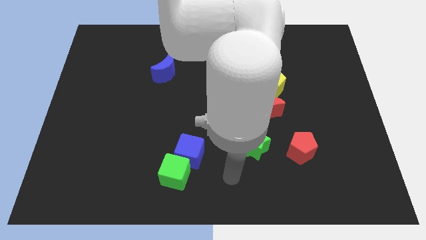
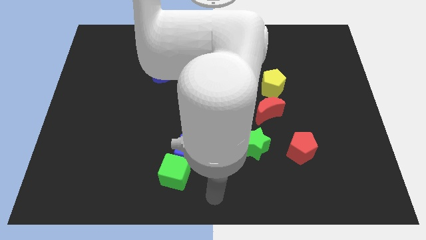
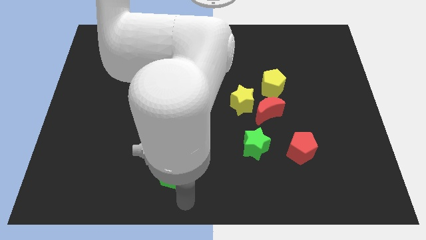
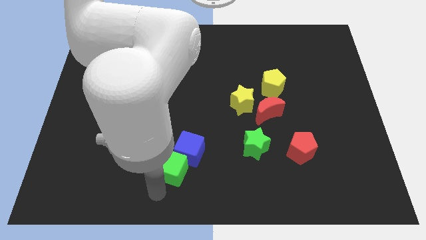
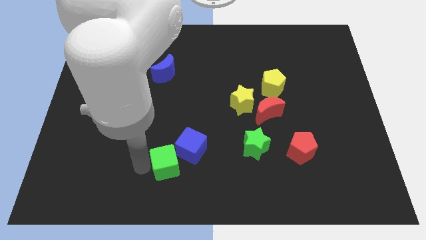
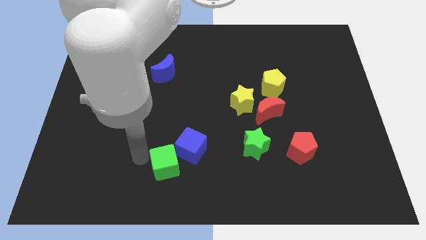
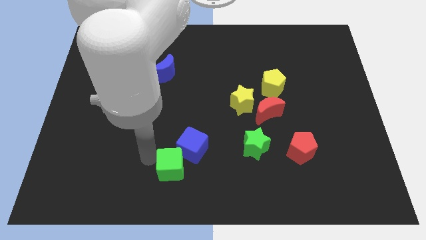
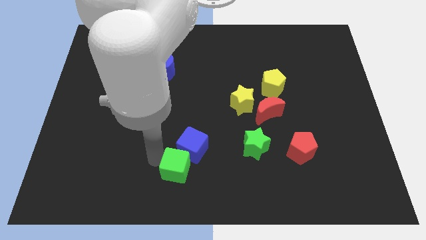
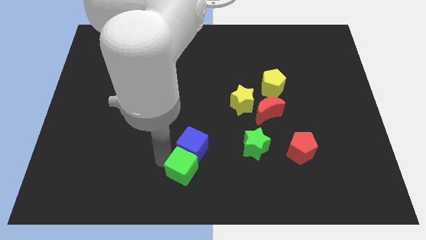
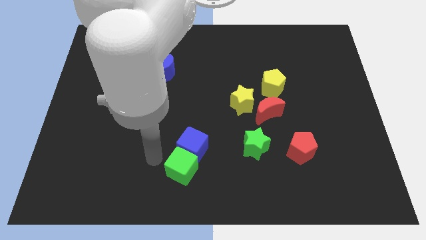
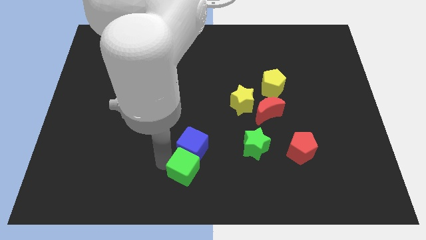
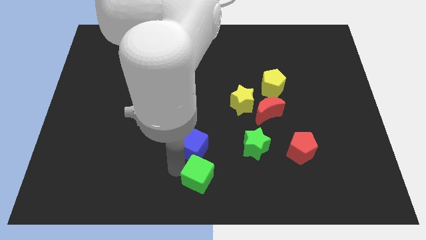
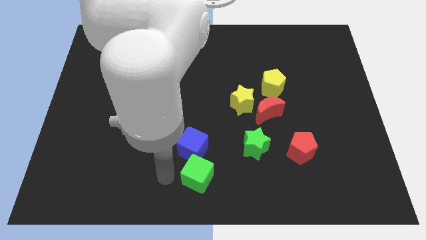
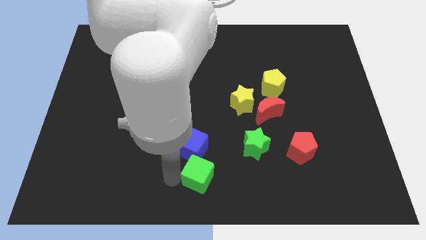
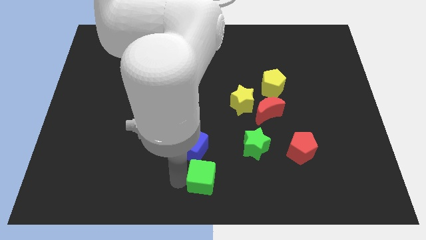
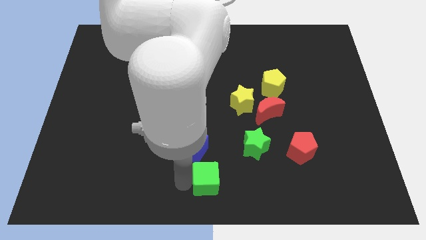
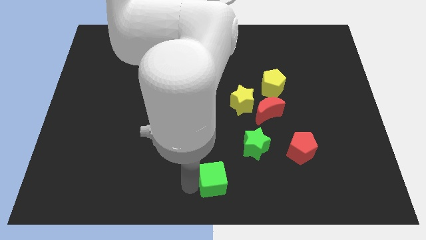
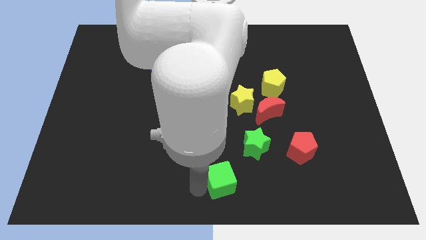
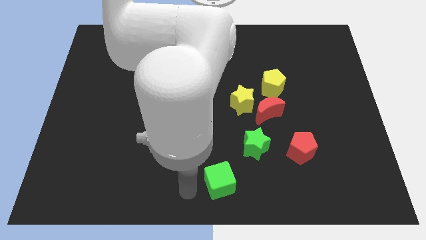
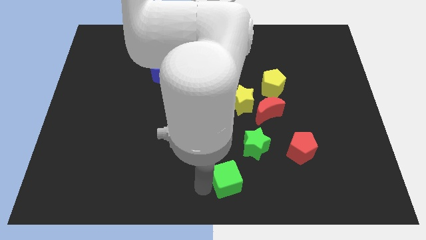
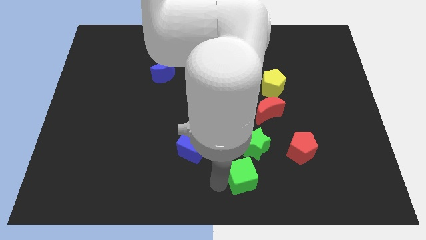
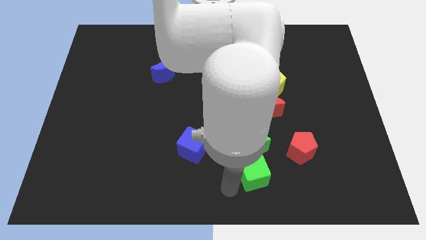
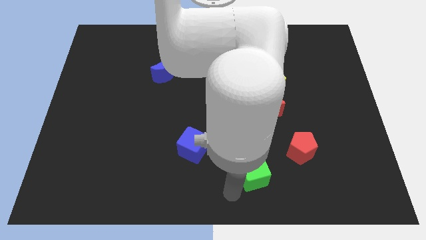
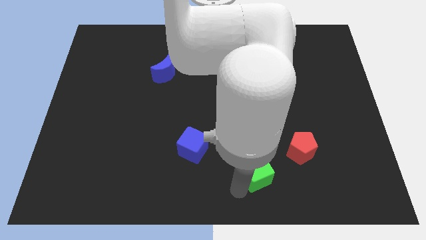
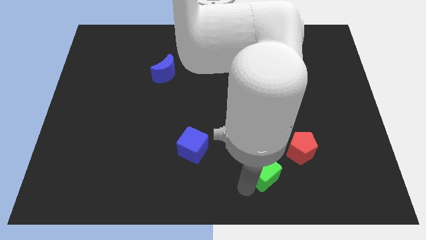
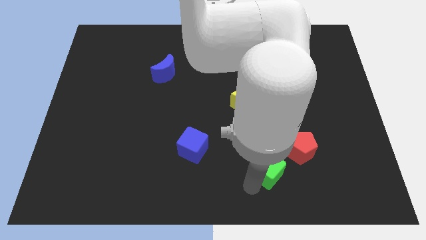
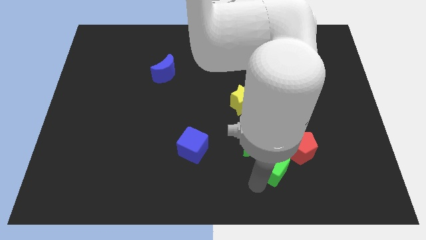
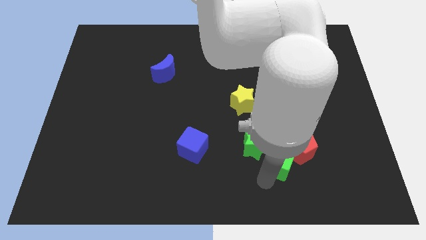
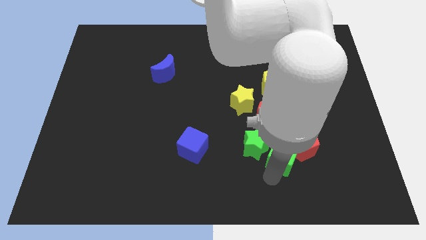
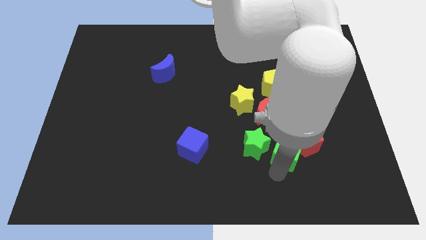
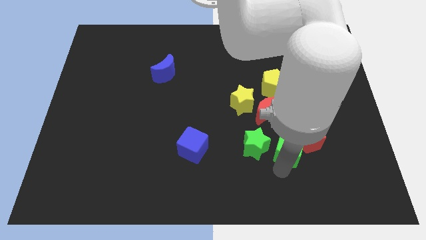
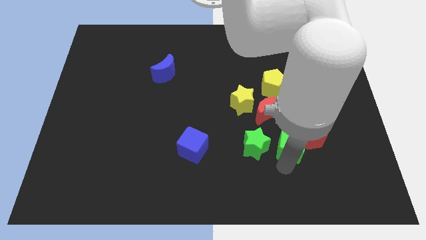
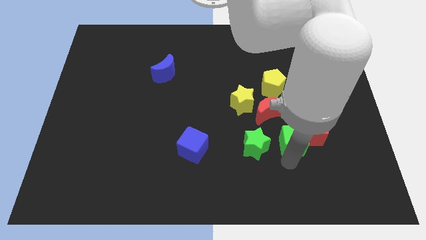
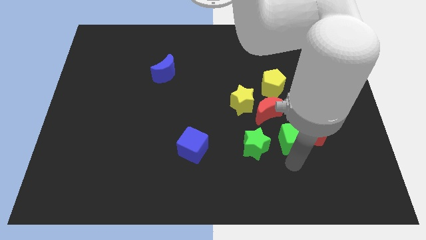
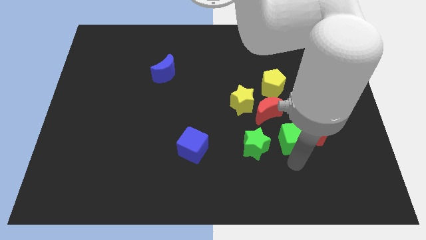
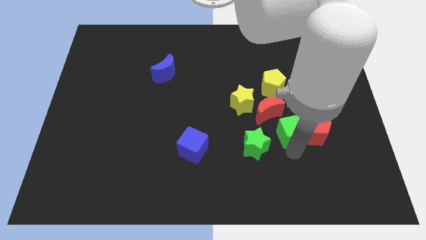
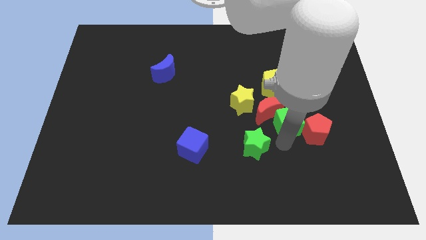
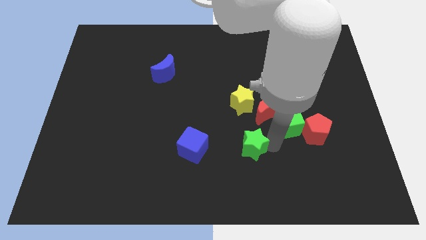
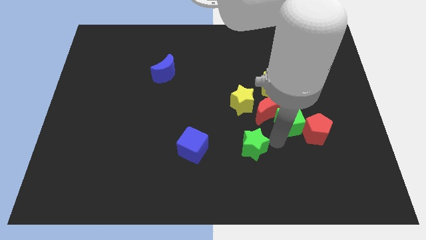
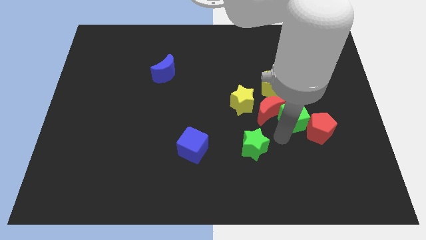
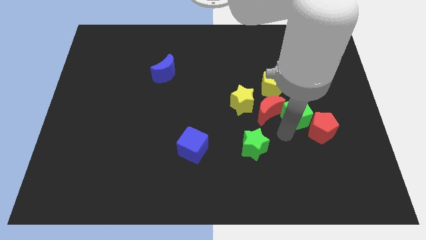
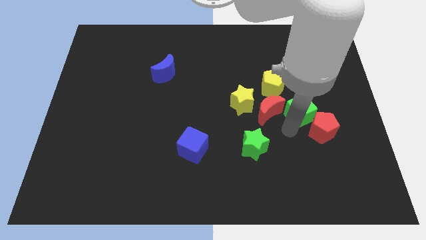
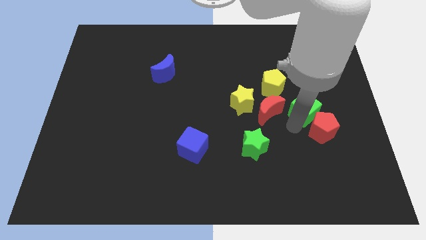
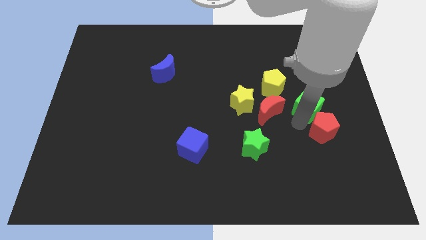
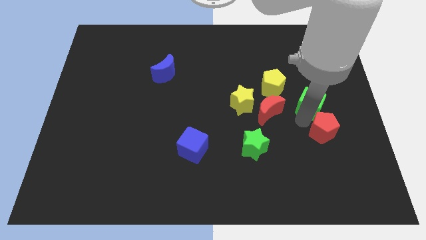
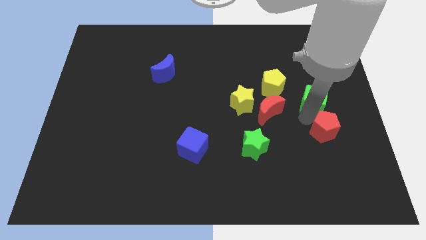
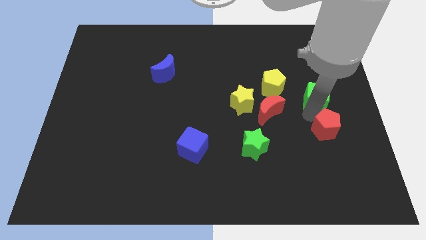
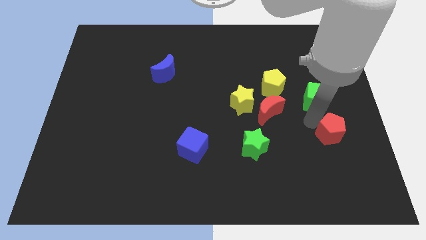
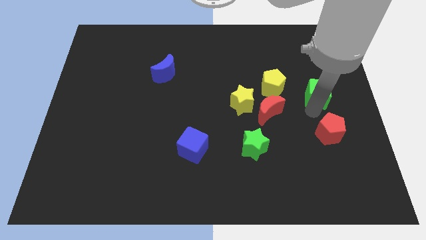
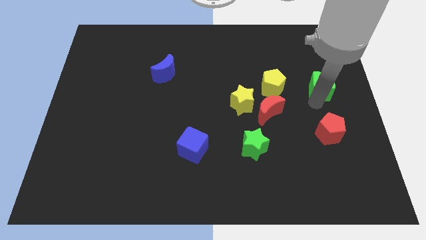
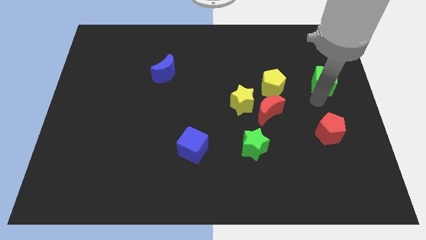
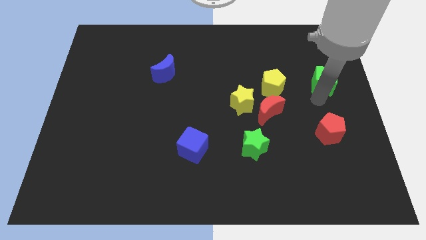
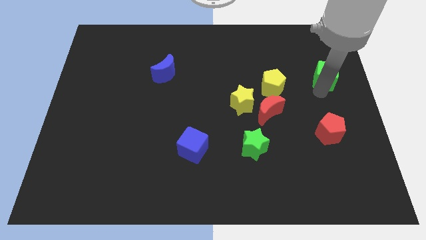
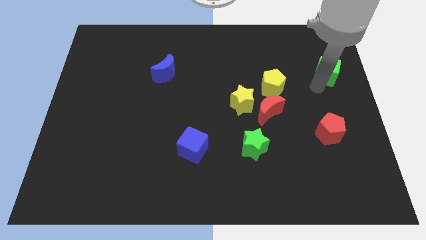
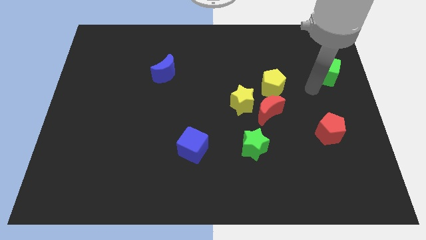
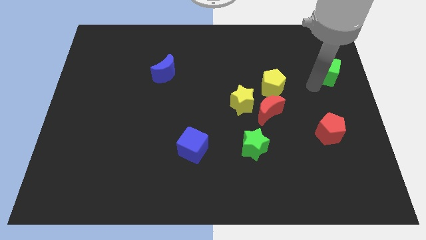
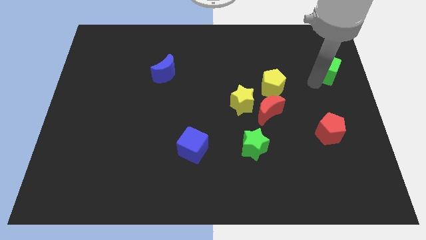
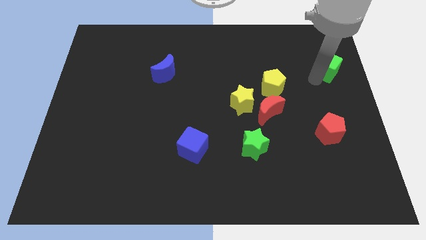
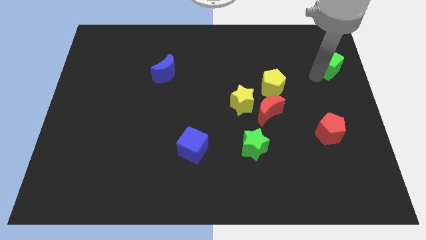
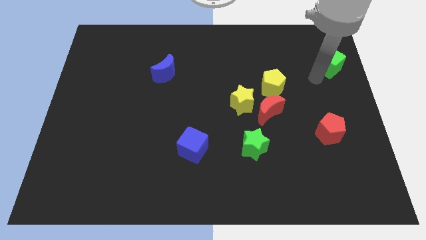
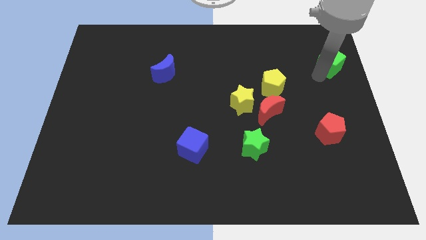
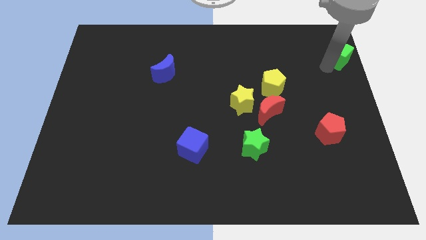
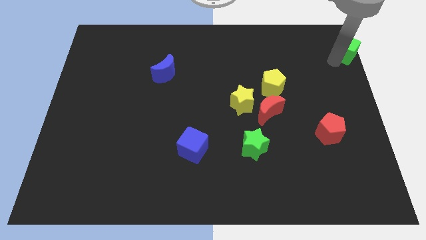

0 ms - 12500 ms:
put the green cube to the upper right corner
